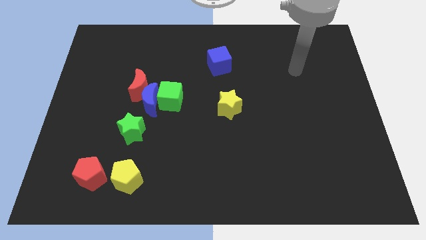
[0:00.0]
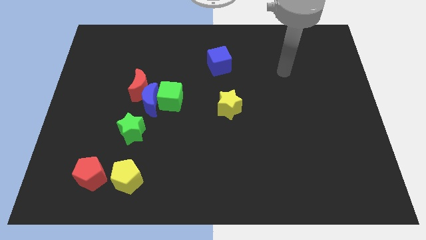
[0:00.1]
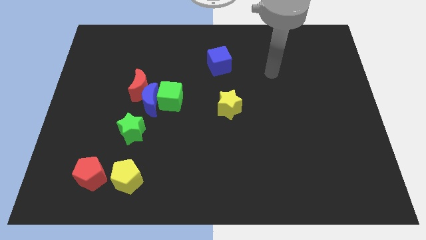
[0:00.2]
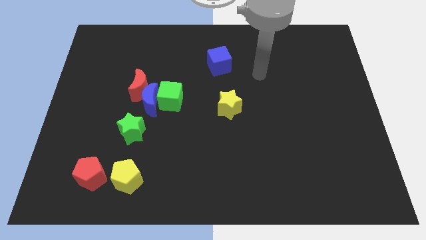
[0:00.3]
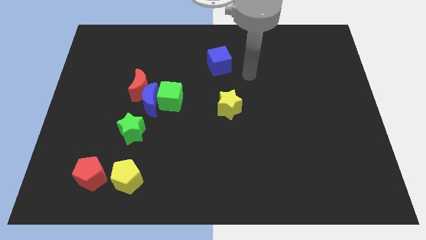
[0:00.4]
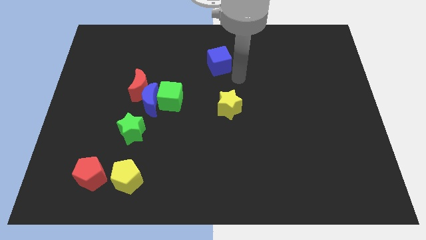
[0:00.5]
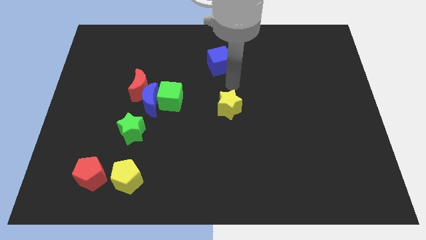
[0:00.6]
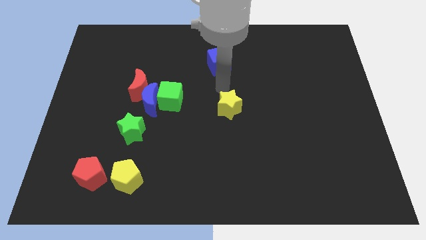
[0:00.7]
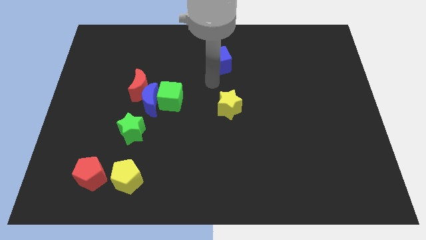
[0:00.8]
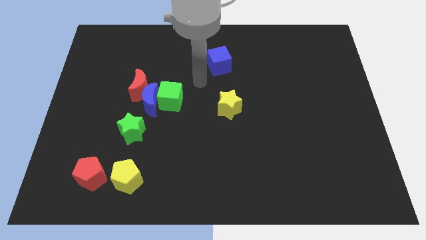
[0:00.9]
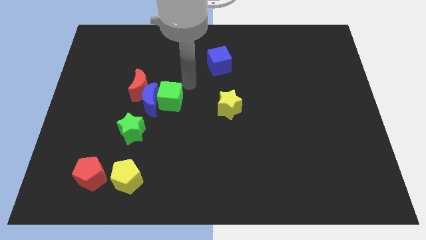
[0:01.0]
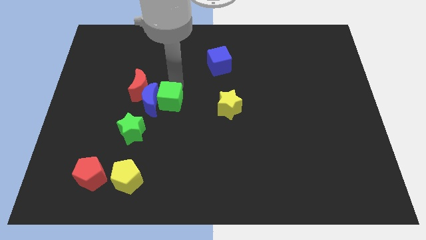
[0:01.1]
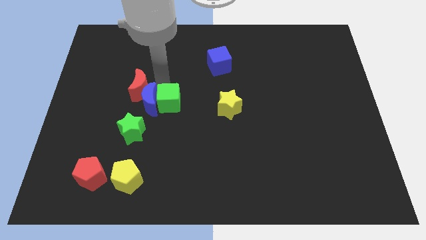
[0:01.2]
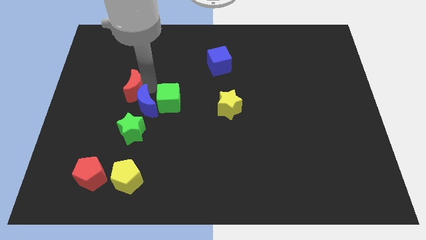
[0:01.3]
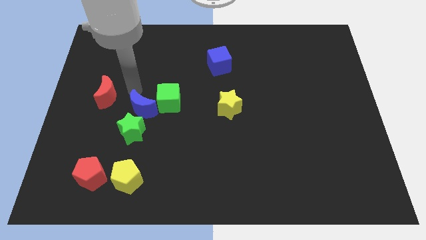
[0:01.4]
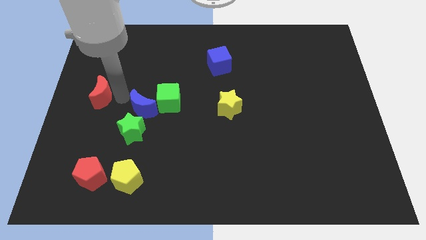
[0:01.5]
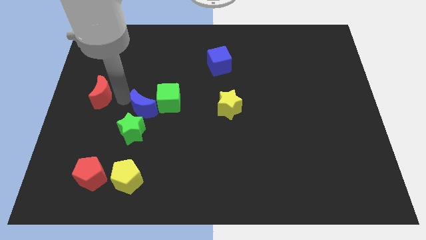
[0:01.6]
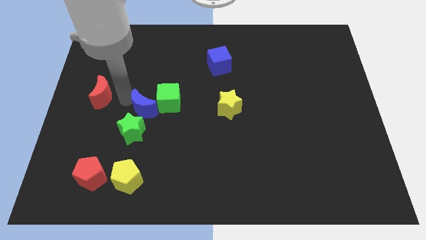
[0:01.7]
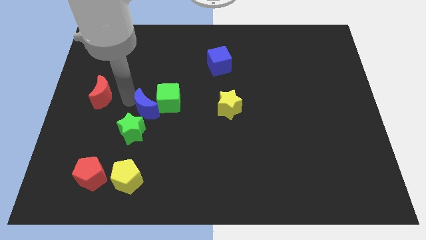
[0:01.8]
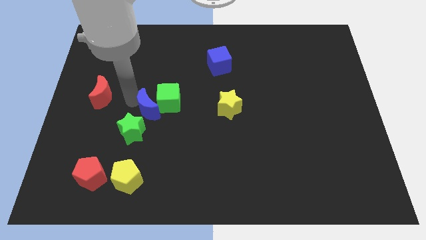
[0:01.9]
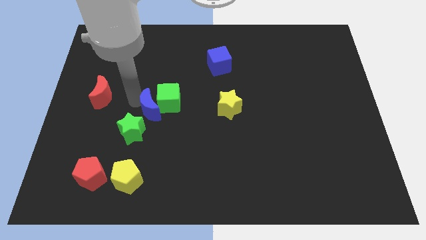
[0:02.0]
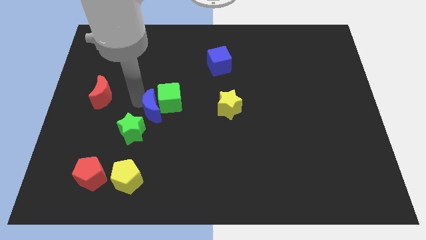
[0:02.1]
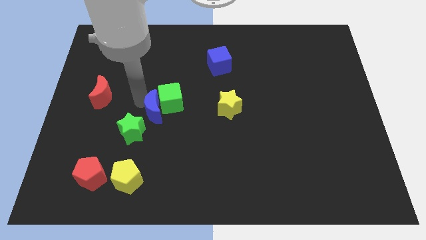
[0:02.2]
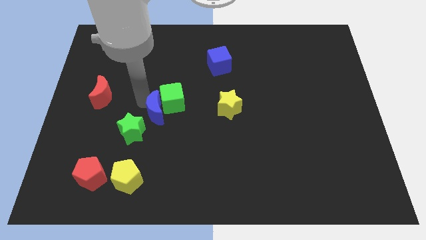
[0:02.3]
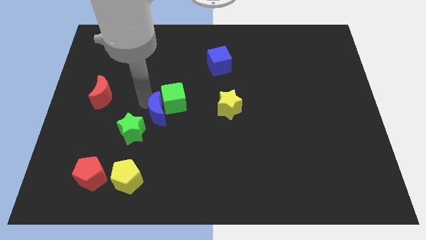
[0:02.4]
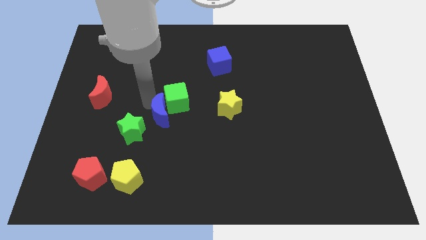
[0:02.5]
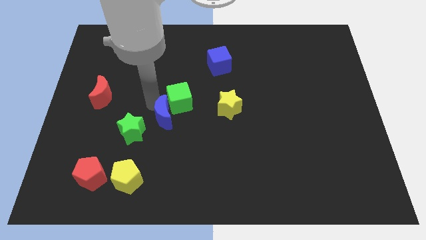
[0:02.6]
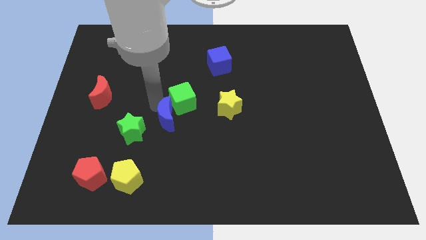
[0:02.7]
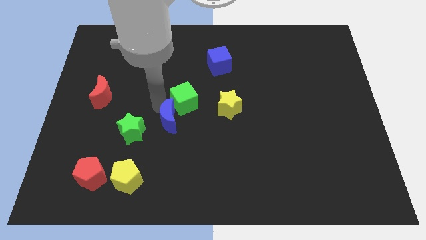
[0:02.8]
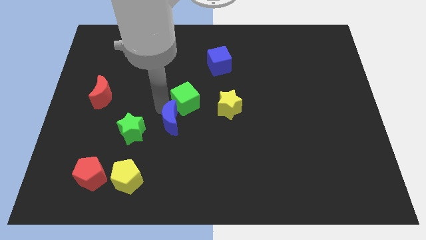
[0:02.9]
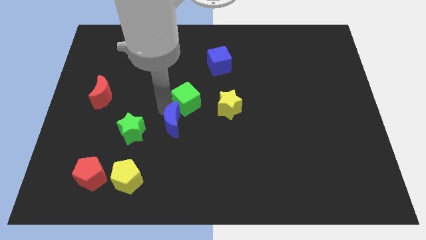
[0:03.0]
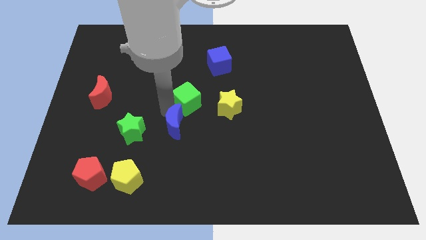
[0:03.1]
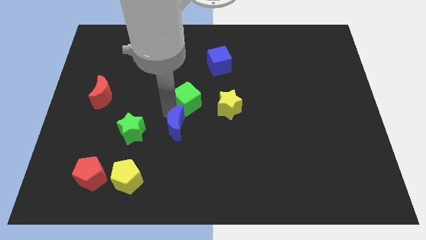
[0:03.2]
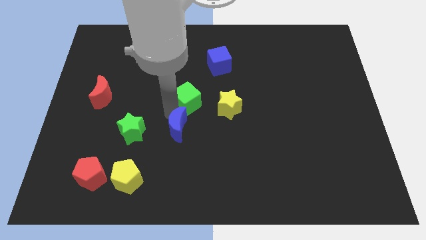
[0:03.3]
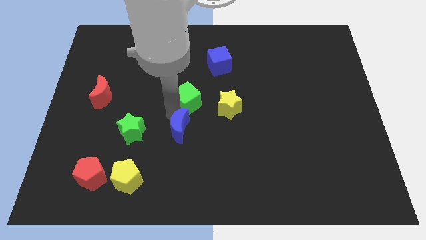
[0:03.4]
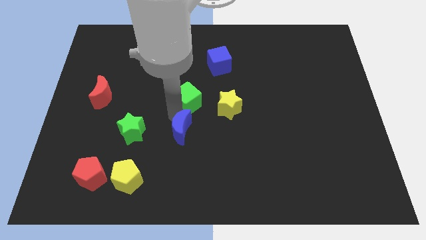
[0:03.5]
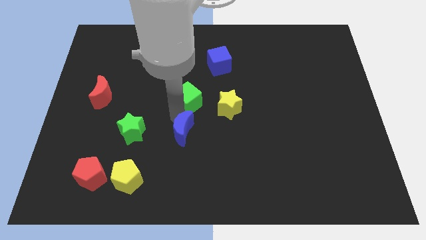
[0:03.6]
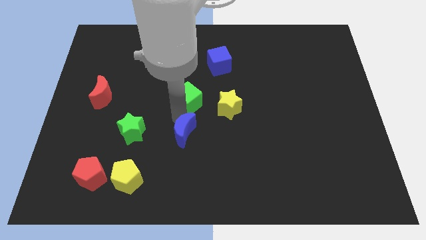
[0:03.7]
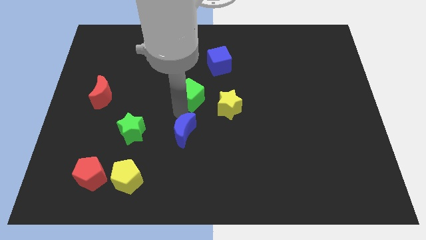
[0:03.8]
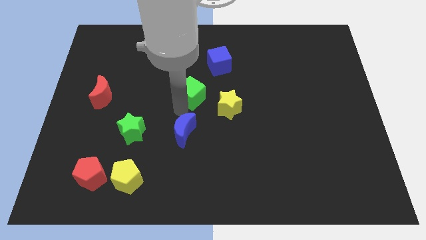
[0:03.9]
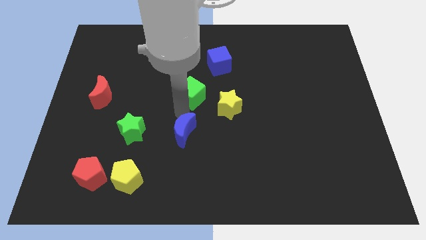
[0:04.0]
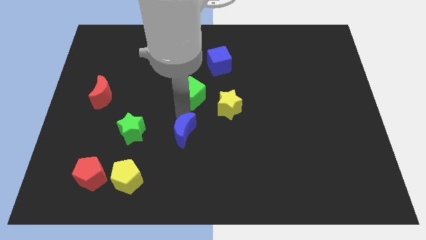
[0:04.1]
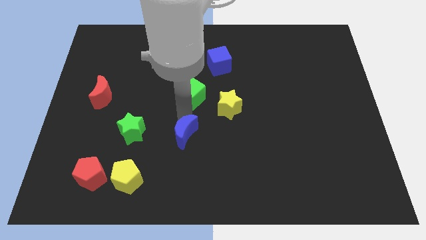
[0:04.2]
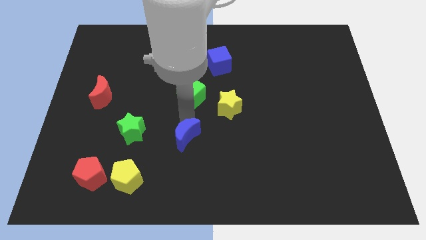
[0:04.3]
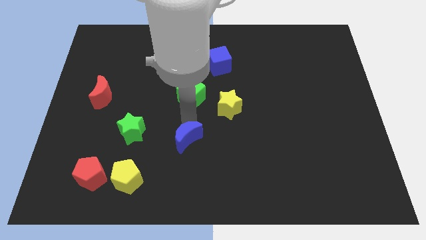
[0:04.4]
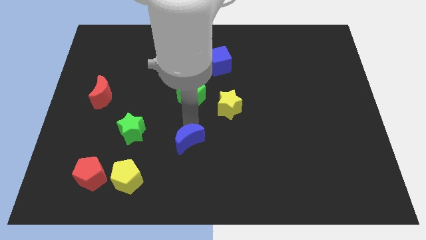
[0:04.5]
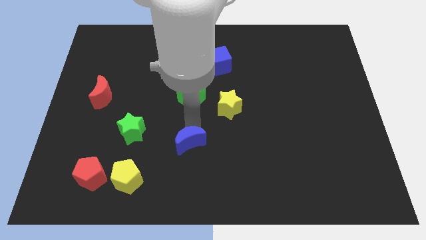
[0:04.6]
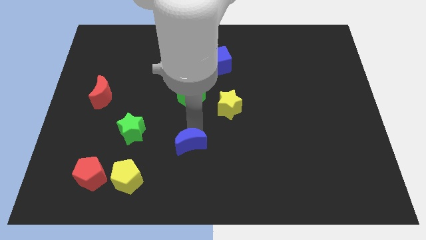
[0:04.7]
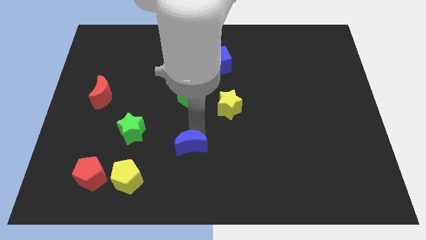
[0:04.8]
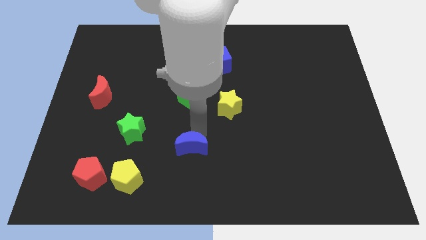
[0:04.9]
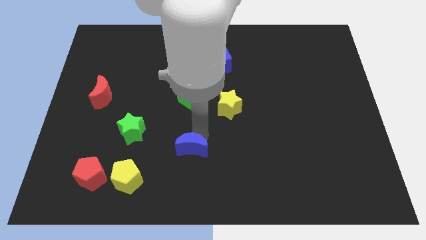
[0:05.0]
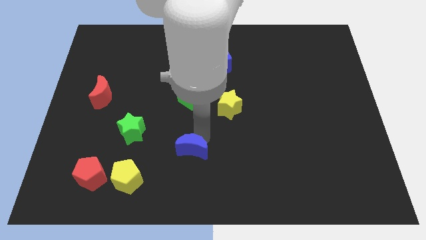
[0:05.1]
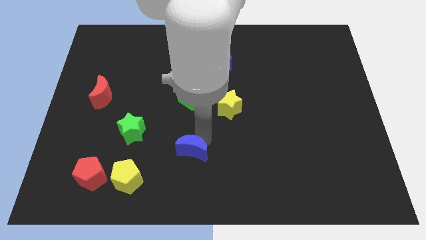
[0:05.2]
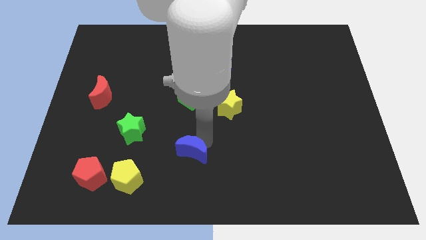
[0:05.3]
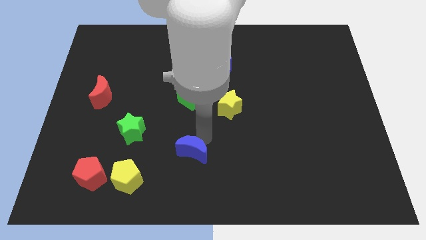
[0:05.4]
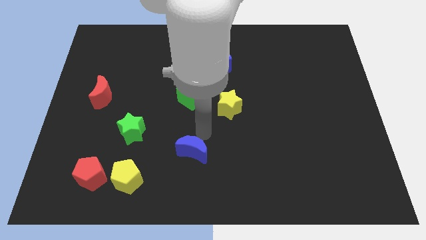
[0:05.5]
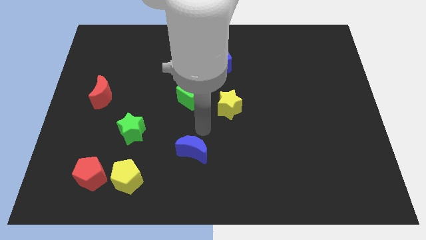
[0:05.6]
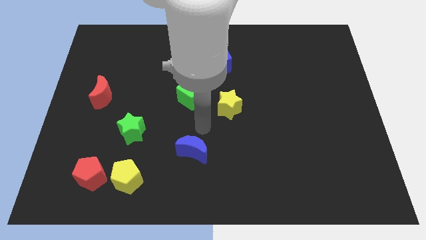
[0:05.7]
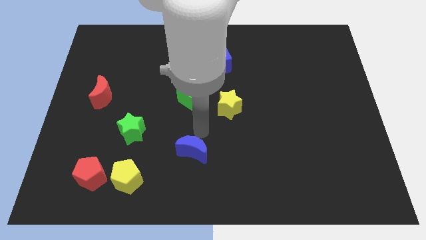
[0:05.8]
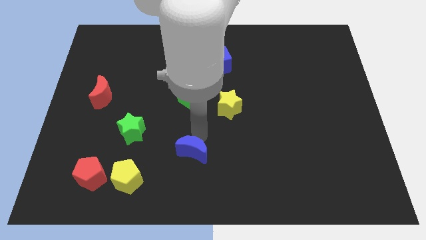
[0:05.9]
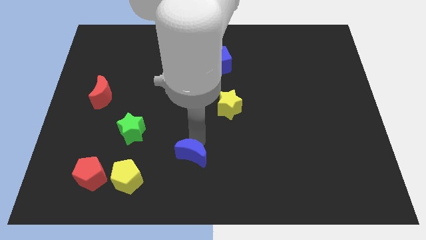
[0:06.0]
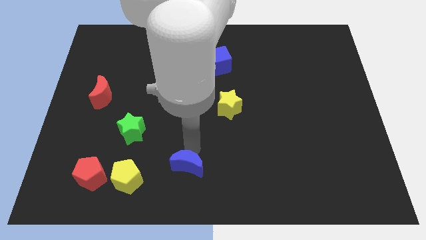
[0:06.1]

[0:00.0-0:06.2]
push the blue moon to the bottom

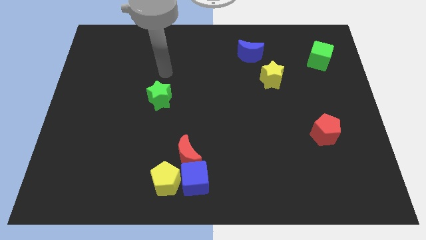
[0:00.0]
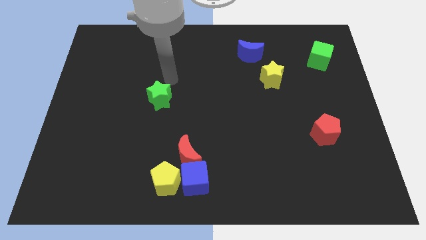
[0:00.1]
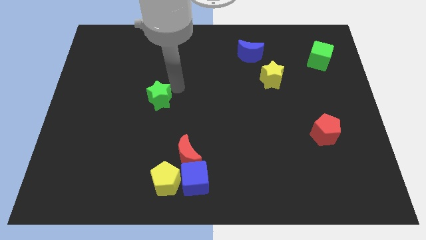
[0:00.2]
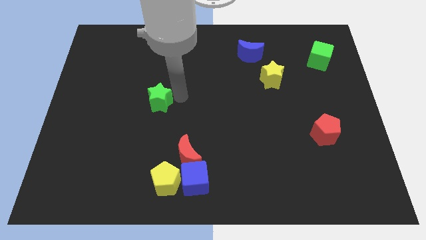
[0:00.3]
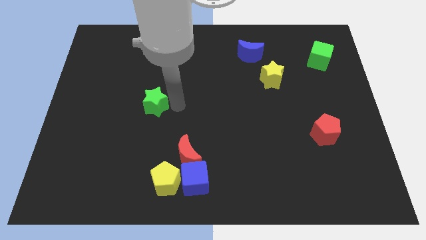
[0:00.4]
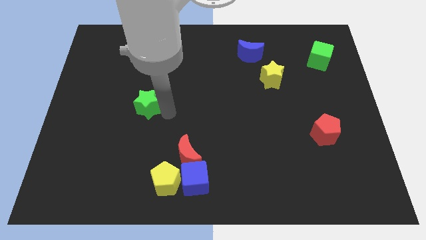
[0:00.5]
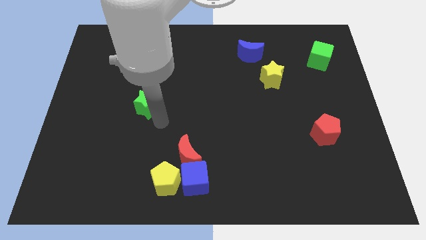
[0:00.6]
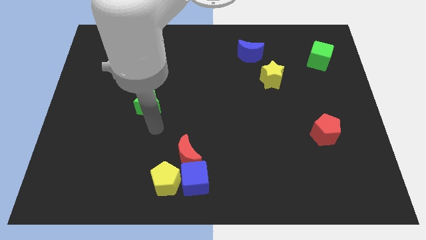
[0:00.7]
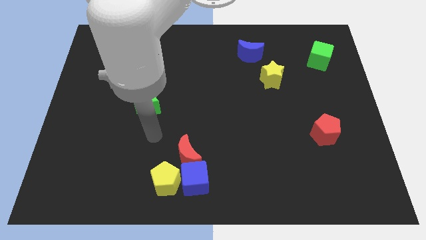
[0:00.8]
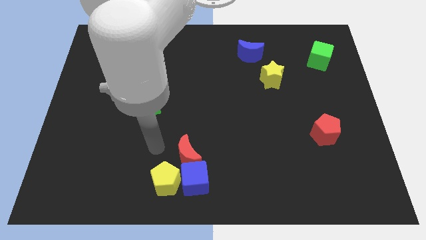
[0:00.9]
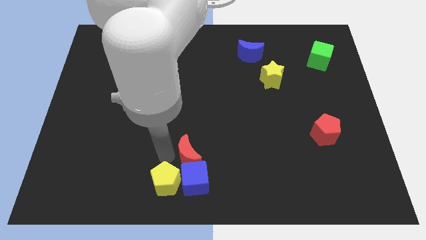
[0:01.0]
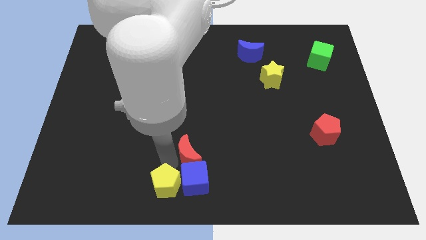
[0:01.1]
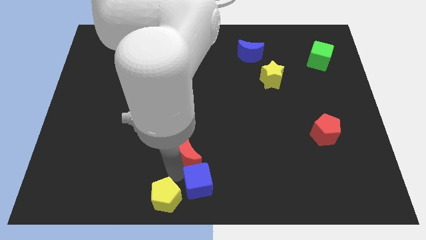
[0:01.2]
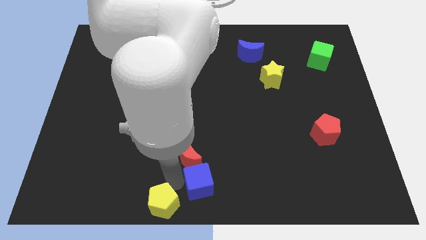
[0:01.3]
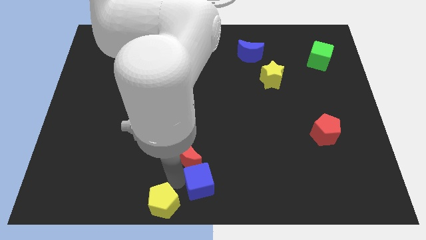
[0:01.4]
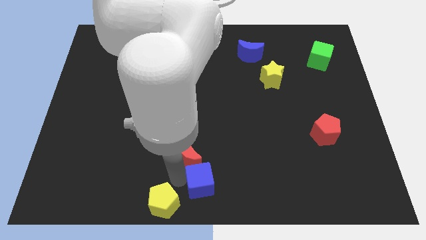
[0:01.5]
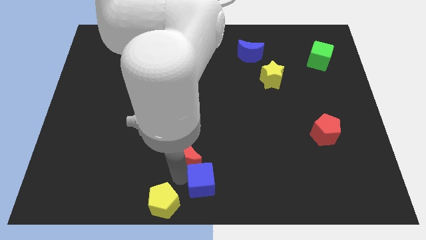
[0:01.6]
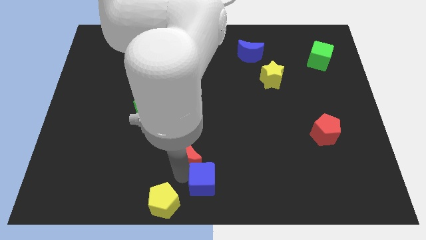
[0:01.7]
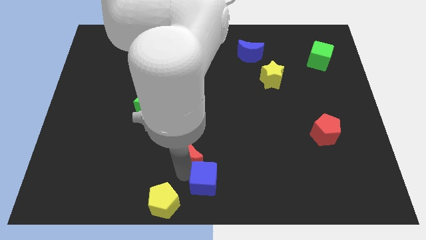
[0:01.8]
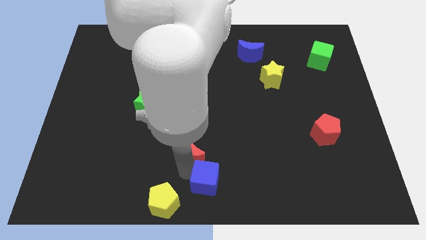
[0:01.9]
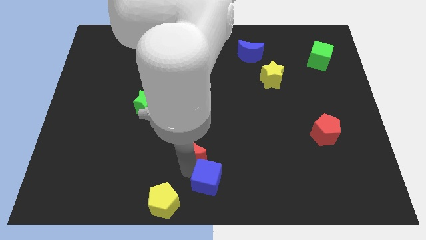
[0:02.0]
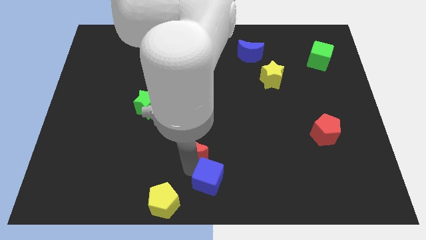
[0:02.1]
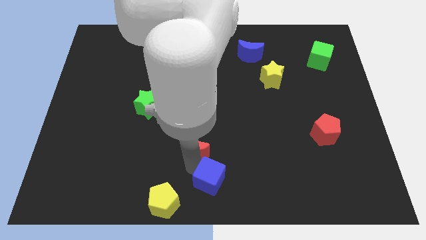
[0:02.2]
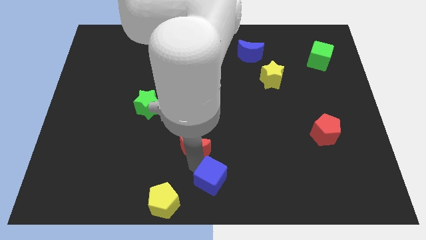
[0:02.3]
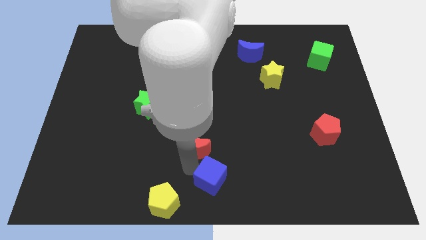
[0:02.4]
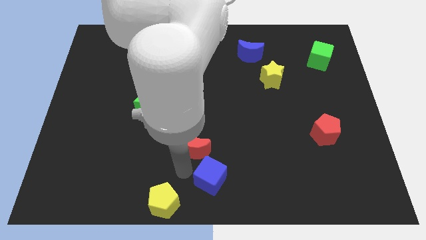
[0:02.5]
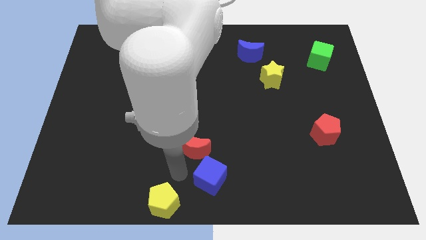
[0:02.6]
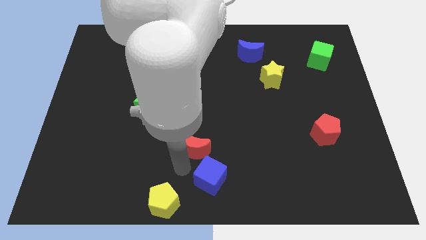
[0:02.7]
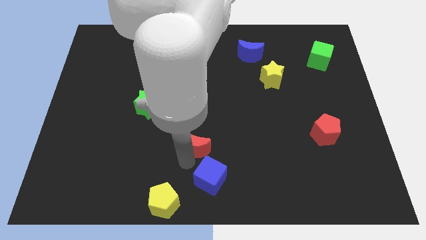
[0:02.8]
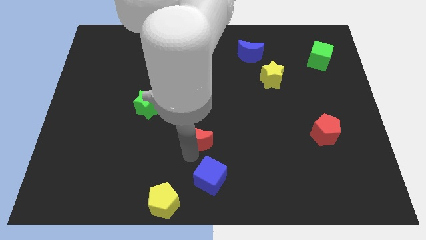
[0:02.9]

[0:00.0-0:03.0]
move the red moon to the center of the board
